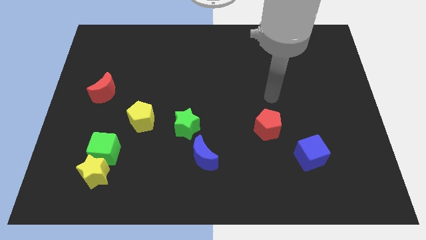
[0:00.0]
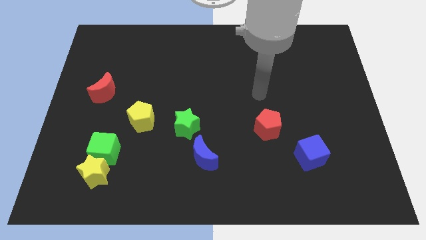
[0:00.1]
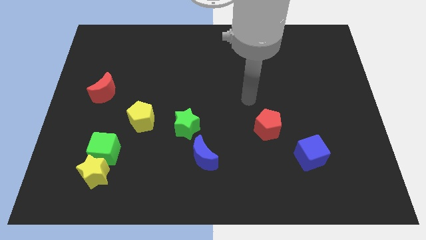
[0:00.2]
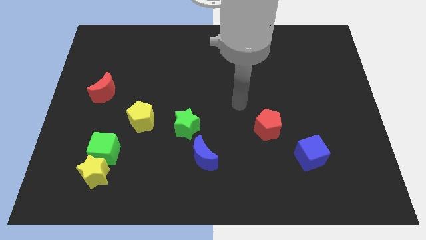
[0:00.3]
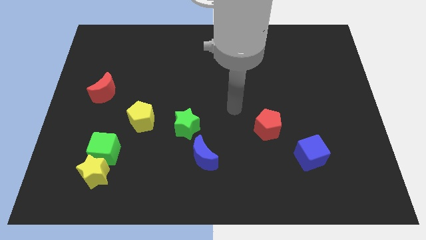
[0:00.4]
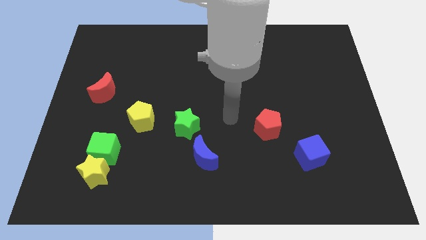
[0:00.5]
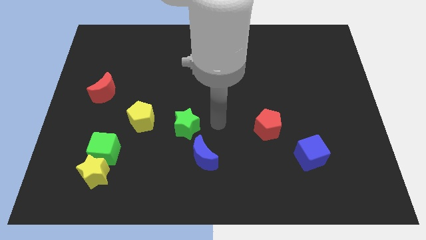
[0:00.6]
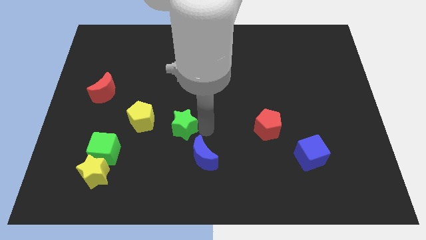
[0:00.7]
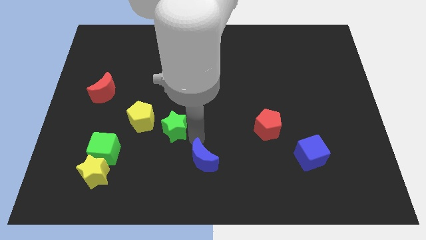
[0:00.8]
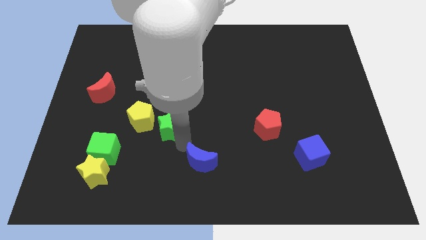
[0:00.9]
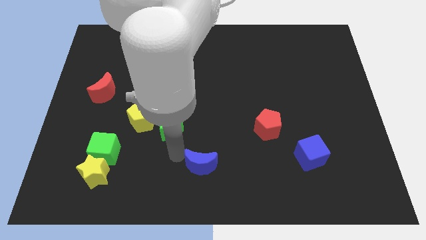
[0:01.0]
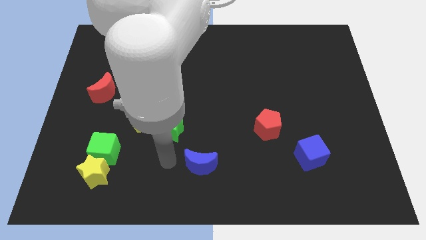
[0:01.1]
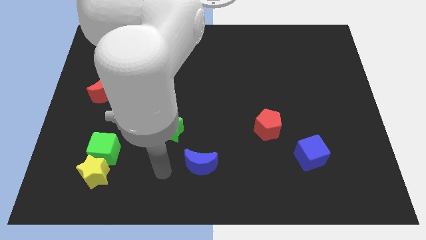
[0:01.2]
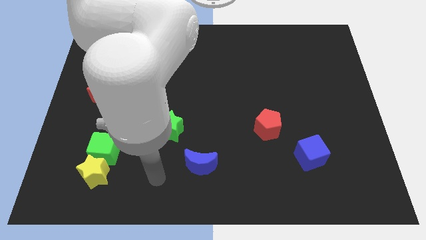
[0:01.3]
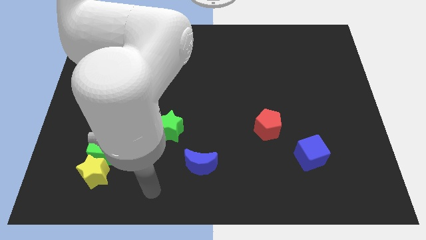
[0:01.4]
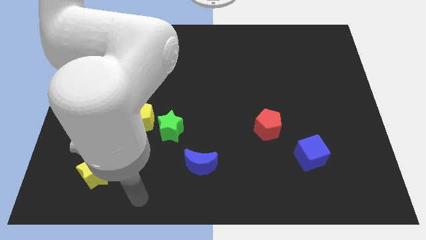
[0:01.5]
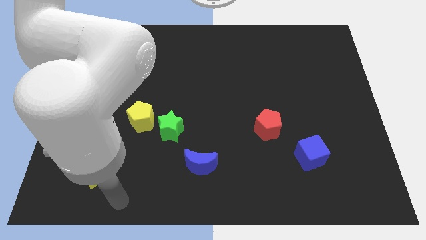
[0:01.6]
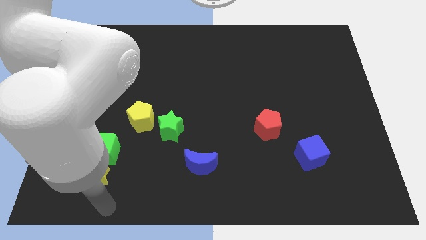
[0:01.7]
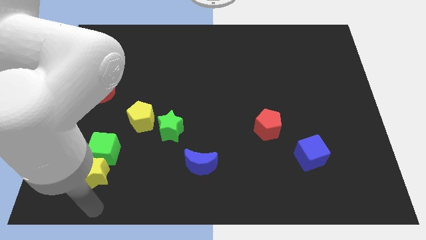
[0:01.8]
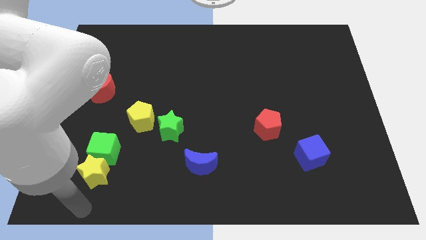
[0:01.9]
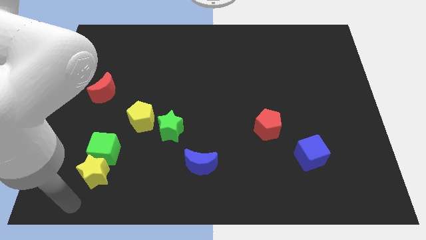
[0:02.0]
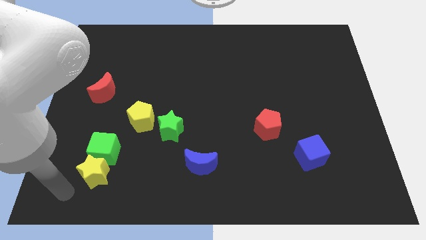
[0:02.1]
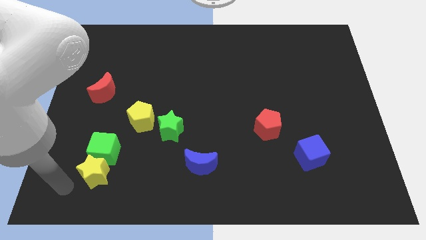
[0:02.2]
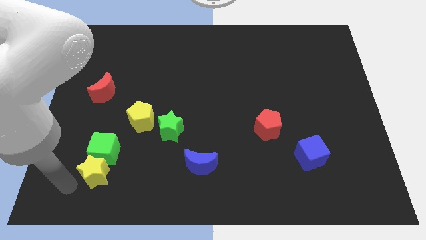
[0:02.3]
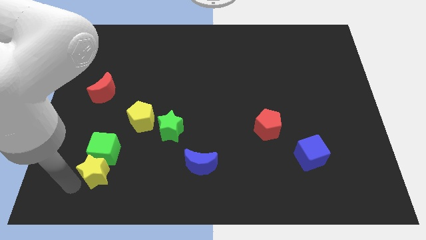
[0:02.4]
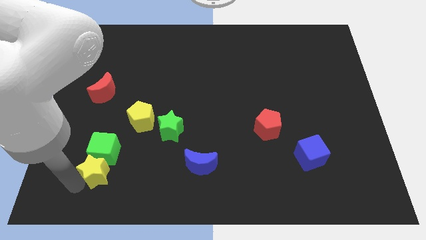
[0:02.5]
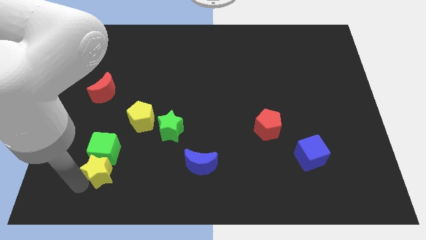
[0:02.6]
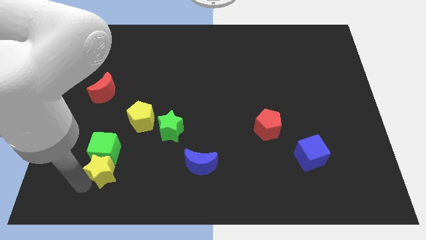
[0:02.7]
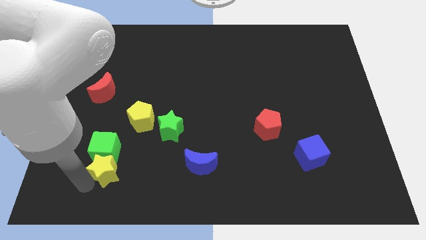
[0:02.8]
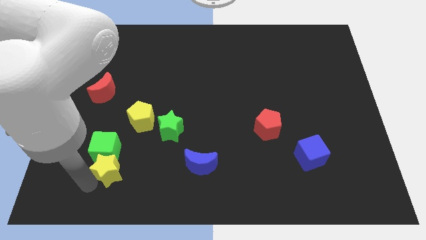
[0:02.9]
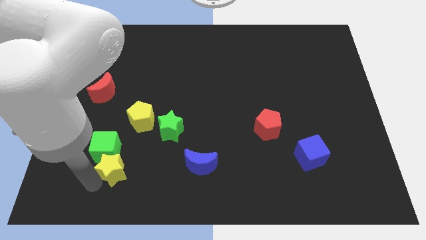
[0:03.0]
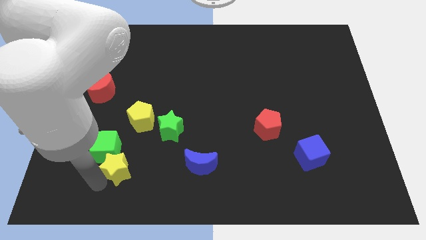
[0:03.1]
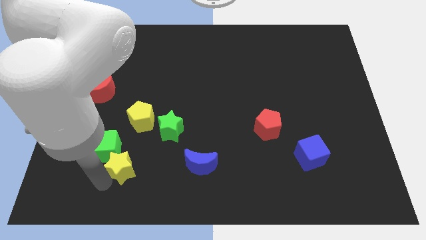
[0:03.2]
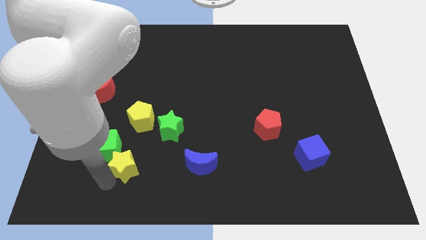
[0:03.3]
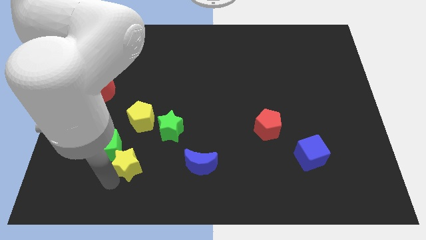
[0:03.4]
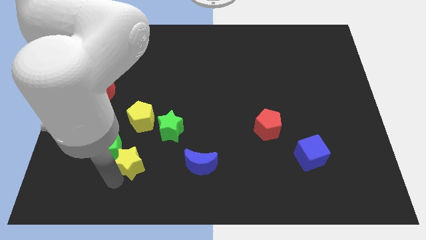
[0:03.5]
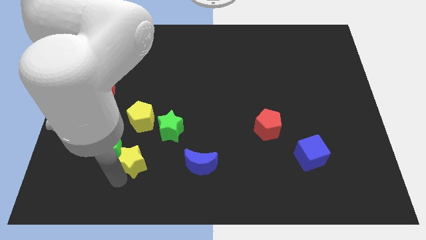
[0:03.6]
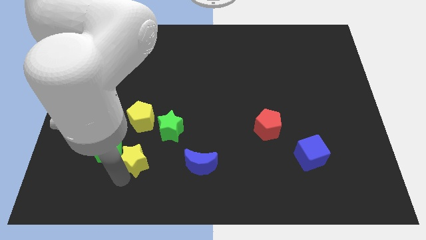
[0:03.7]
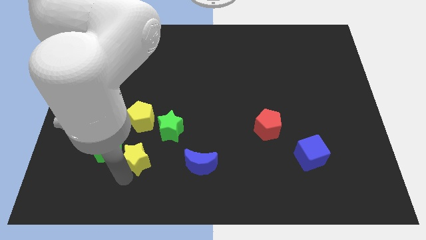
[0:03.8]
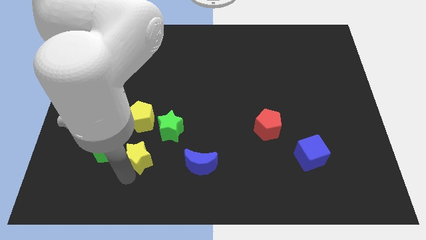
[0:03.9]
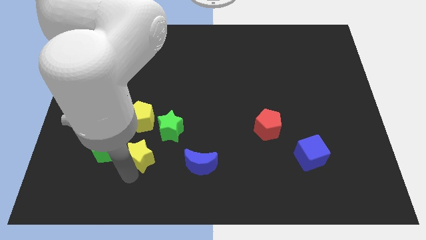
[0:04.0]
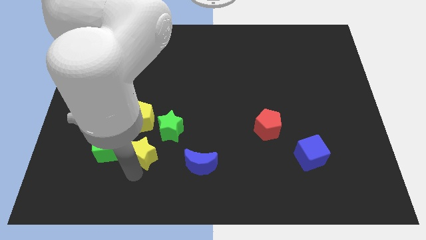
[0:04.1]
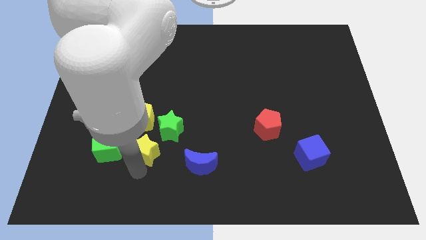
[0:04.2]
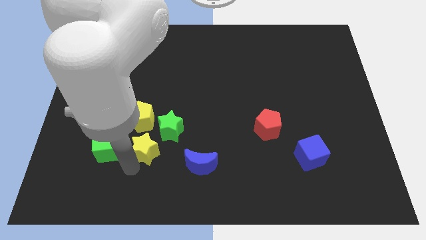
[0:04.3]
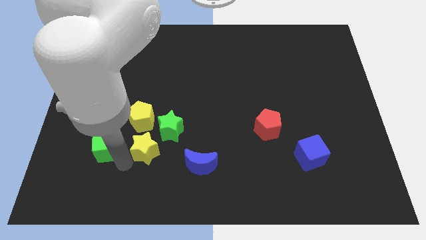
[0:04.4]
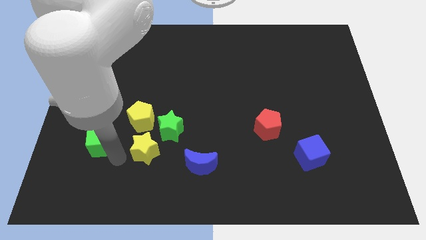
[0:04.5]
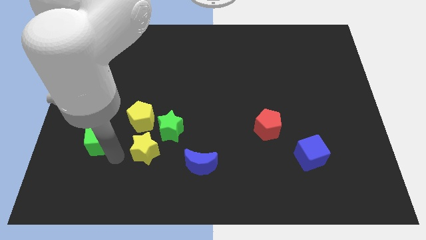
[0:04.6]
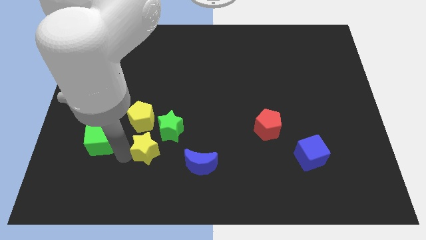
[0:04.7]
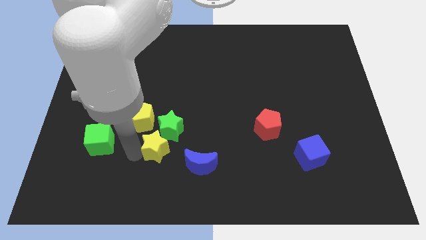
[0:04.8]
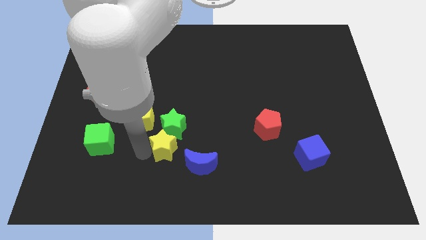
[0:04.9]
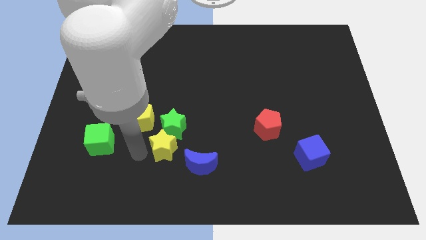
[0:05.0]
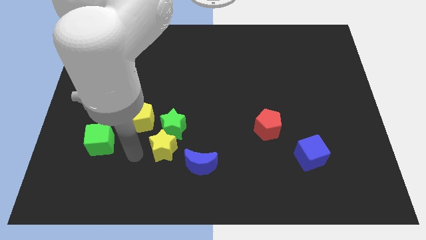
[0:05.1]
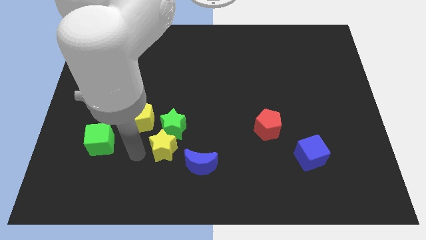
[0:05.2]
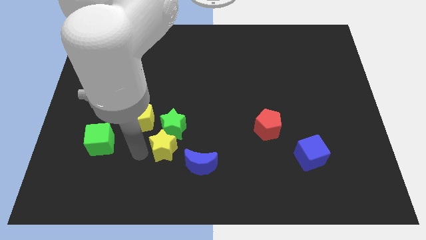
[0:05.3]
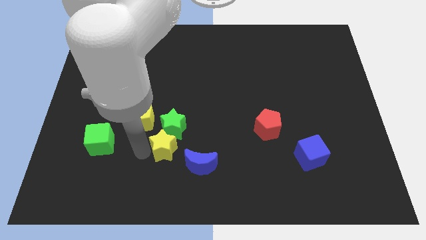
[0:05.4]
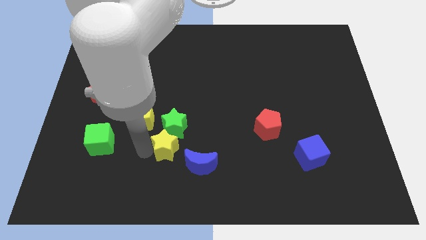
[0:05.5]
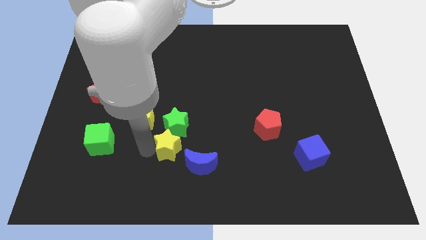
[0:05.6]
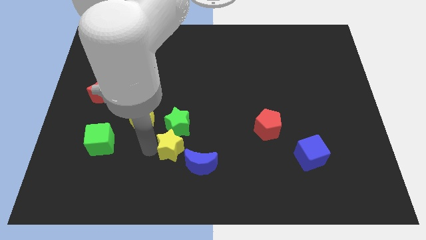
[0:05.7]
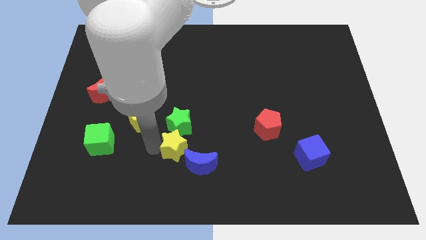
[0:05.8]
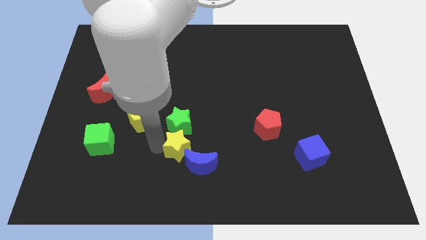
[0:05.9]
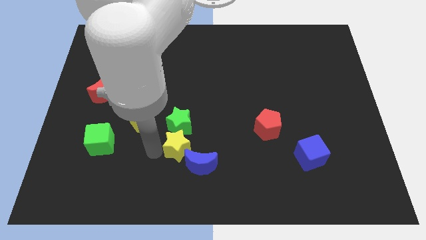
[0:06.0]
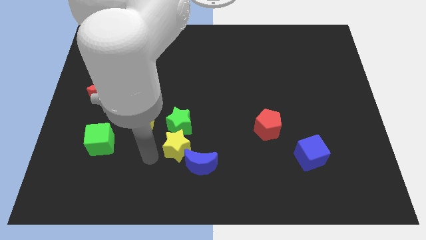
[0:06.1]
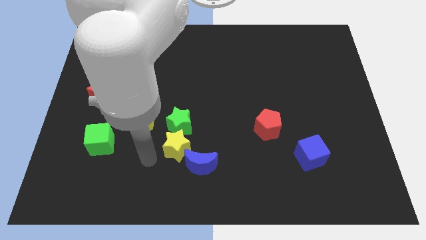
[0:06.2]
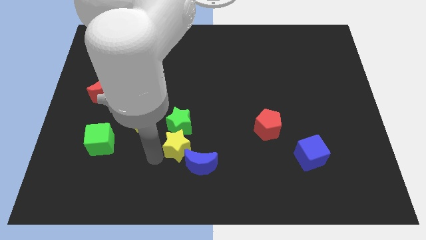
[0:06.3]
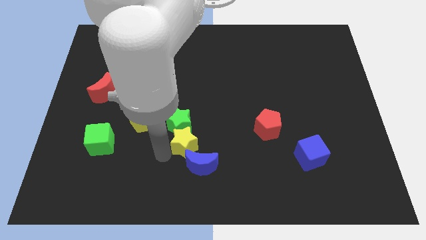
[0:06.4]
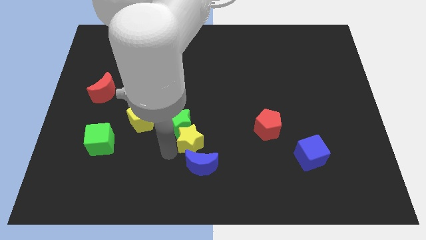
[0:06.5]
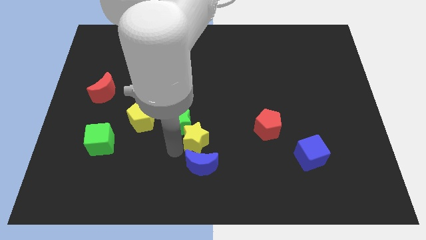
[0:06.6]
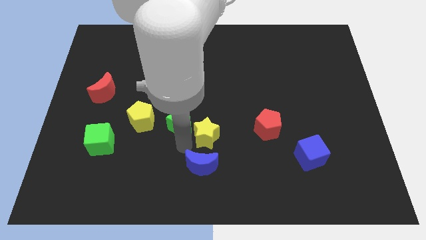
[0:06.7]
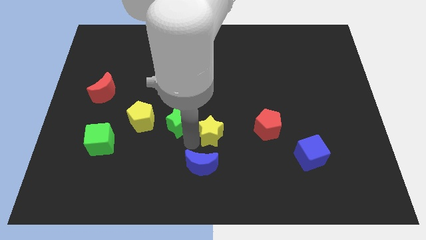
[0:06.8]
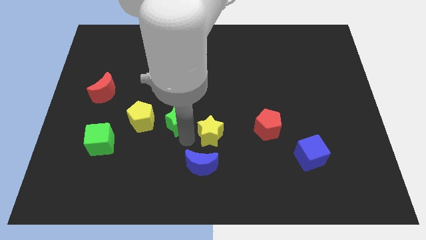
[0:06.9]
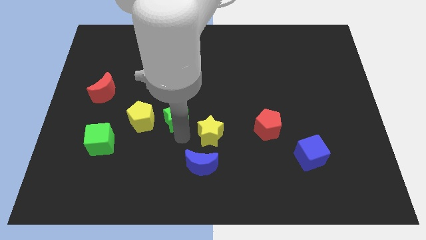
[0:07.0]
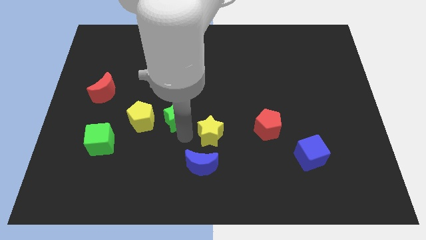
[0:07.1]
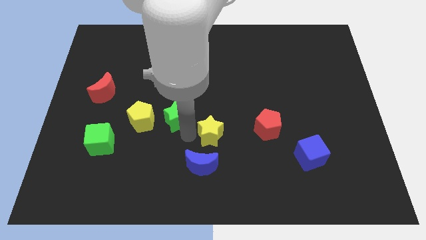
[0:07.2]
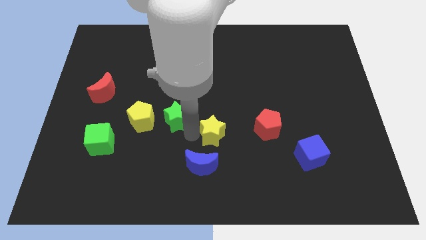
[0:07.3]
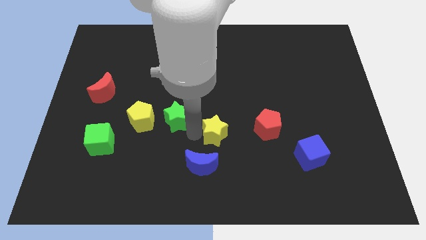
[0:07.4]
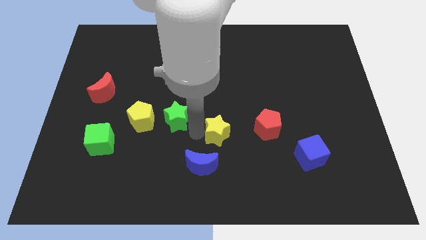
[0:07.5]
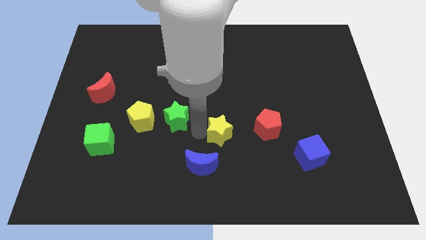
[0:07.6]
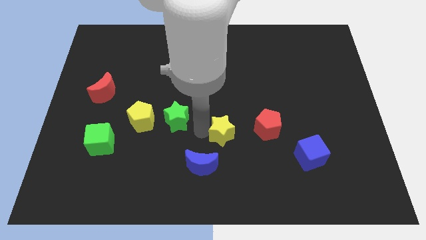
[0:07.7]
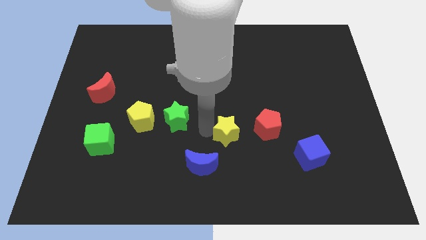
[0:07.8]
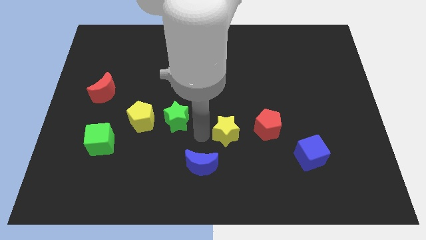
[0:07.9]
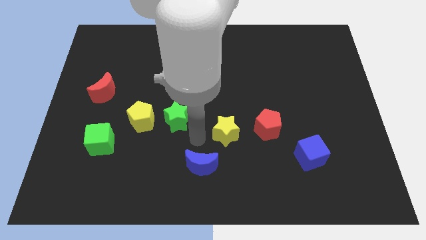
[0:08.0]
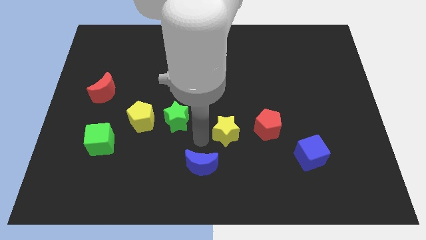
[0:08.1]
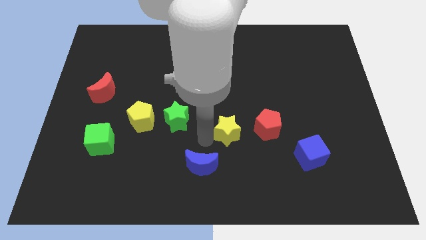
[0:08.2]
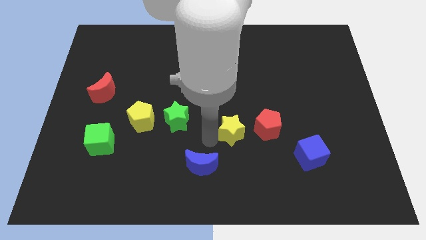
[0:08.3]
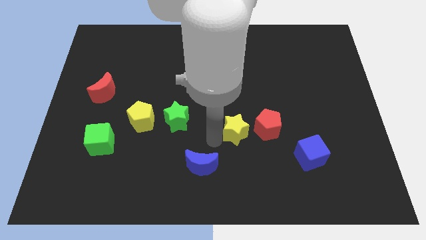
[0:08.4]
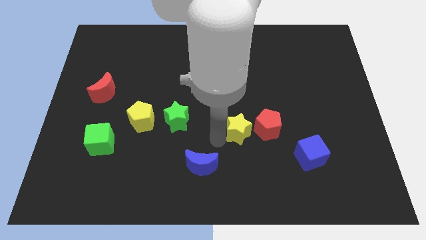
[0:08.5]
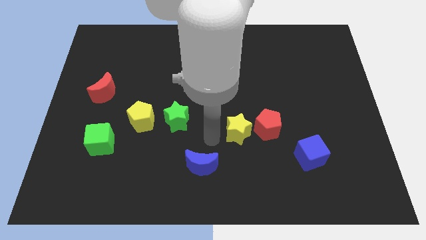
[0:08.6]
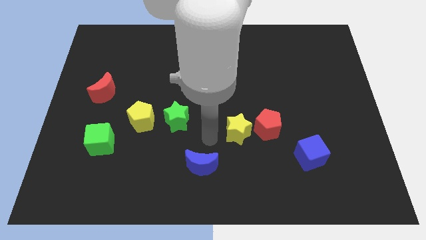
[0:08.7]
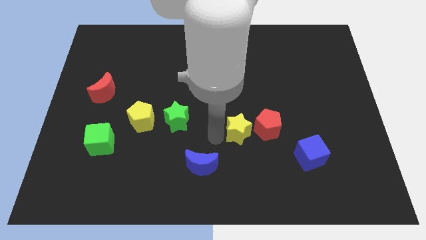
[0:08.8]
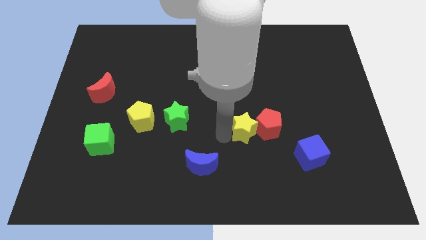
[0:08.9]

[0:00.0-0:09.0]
push the yellow star towards the red pentagon
